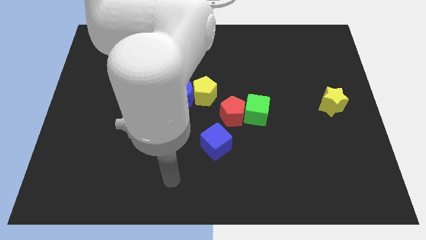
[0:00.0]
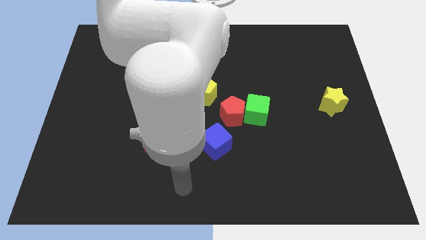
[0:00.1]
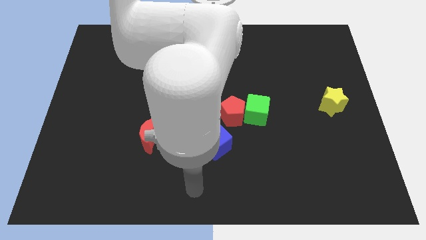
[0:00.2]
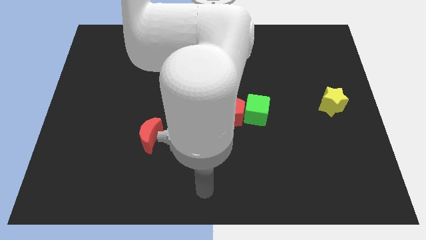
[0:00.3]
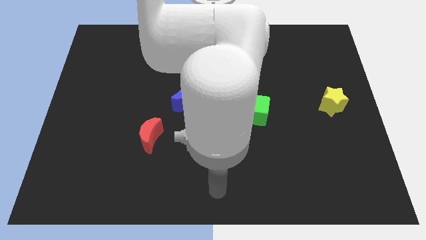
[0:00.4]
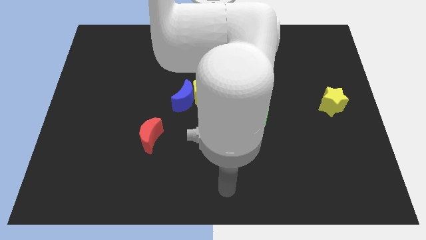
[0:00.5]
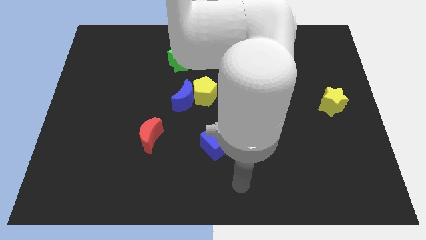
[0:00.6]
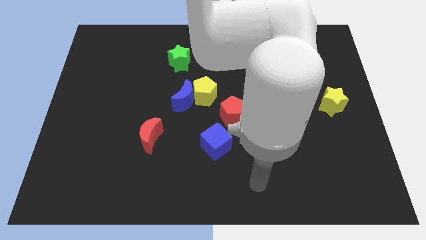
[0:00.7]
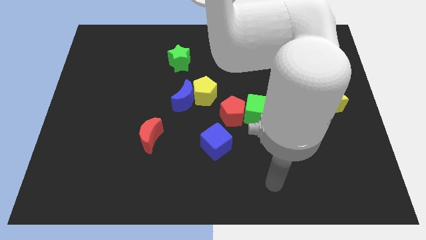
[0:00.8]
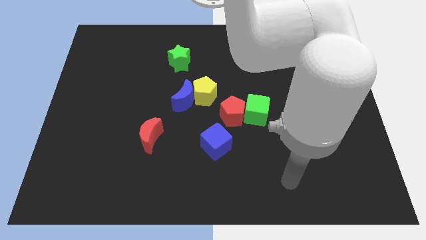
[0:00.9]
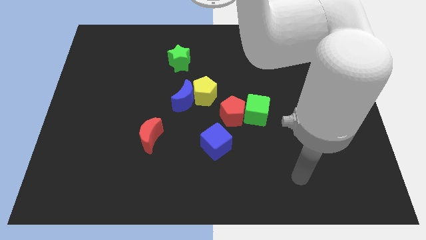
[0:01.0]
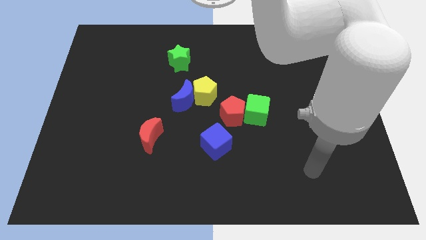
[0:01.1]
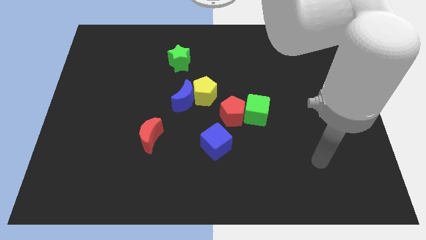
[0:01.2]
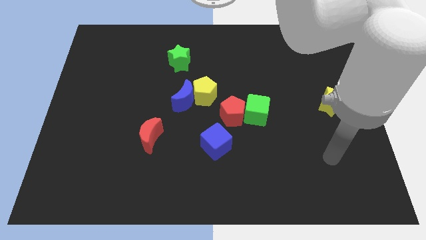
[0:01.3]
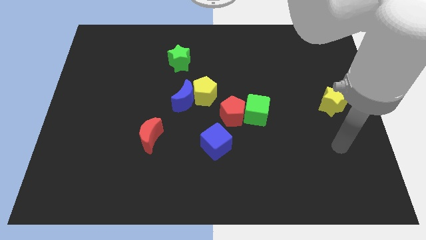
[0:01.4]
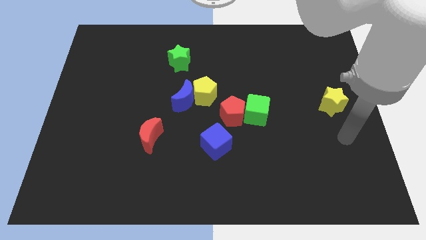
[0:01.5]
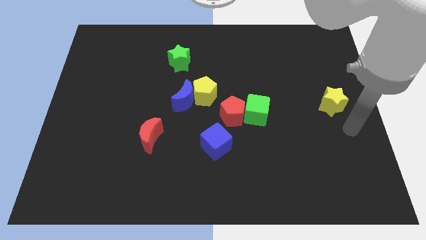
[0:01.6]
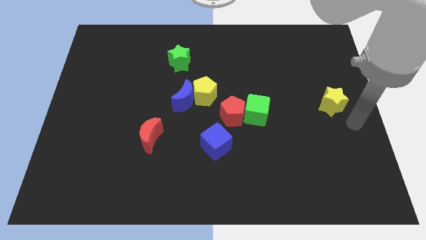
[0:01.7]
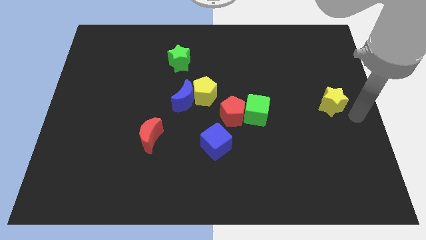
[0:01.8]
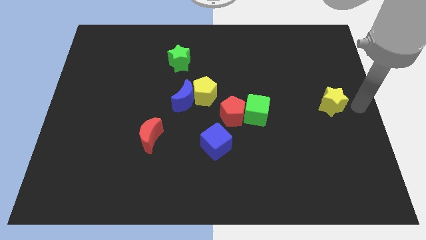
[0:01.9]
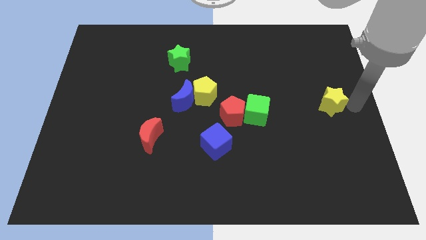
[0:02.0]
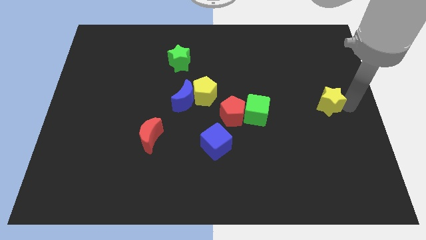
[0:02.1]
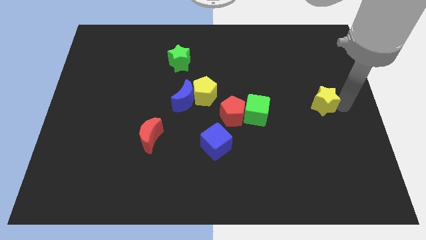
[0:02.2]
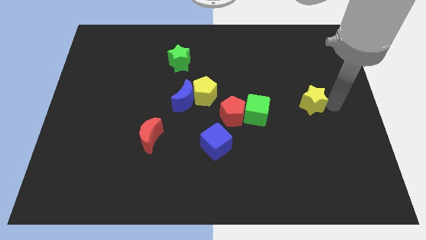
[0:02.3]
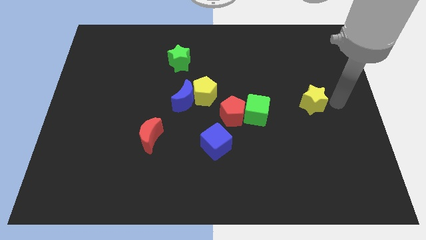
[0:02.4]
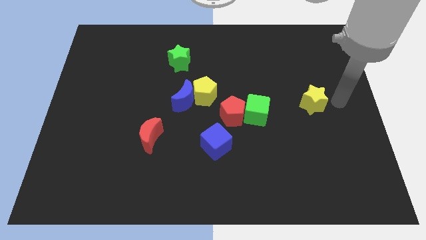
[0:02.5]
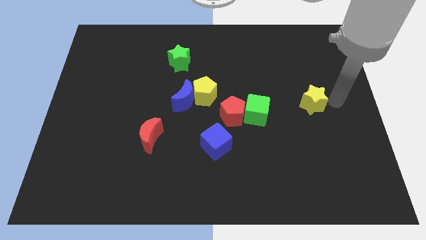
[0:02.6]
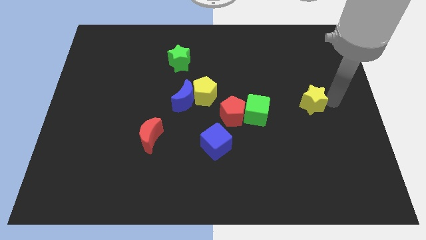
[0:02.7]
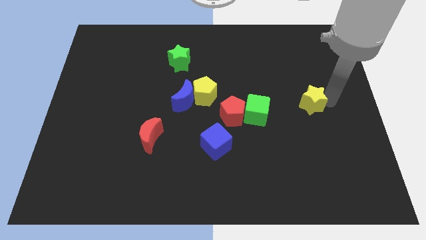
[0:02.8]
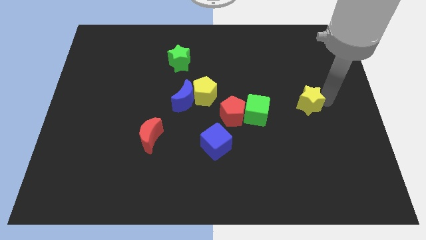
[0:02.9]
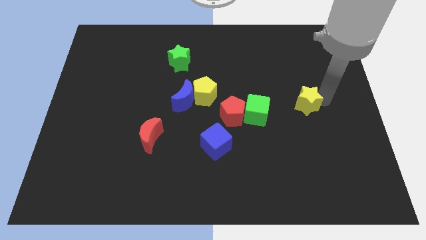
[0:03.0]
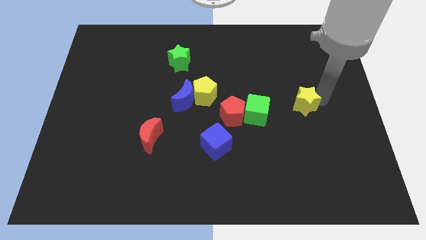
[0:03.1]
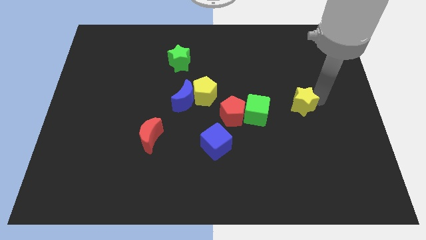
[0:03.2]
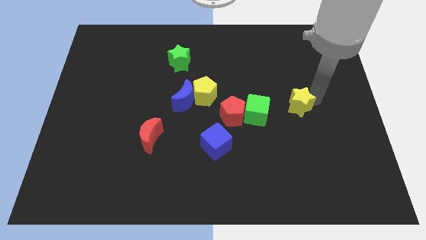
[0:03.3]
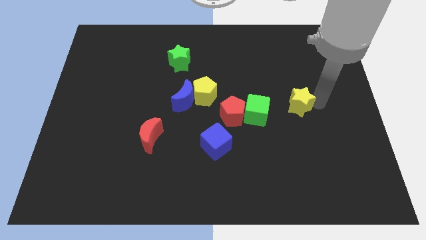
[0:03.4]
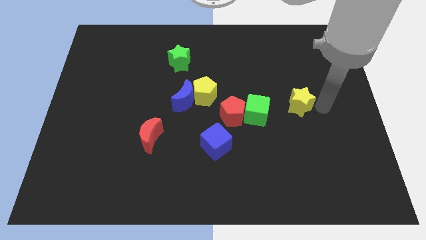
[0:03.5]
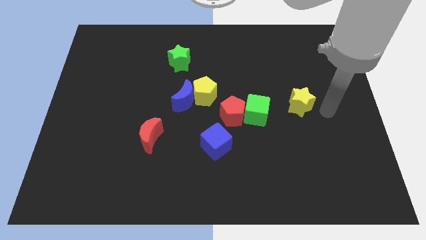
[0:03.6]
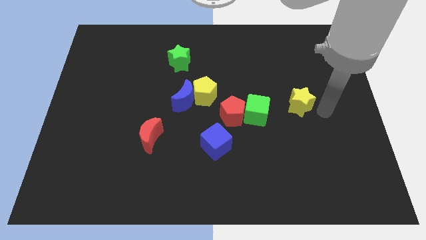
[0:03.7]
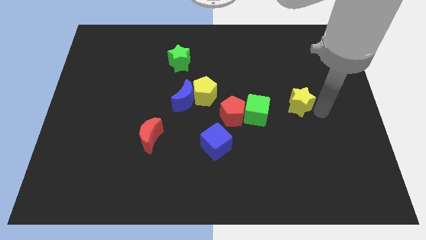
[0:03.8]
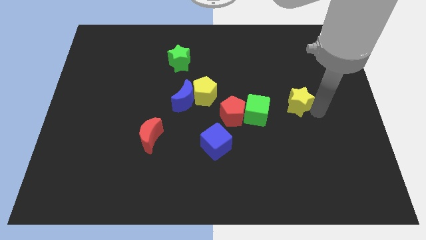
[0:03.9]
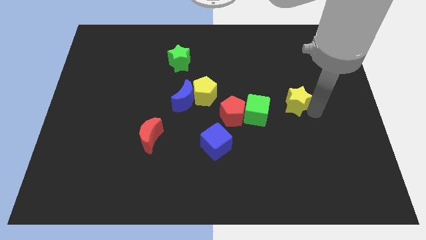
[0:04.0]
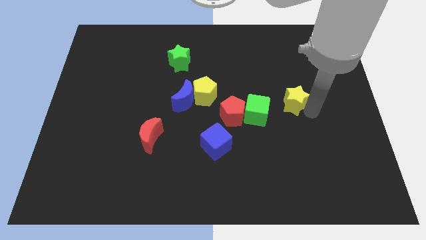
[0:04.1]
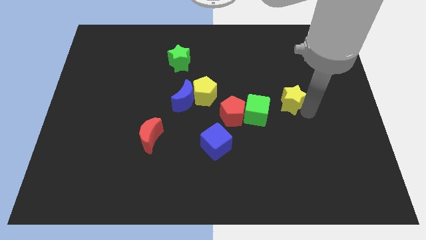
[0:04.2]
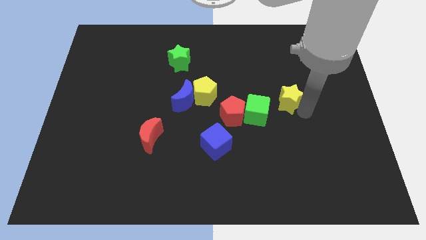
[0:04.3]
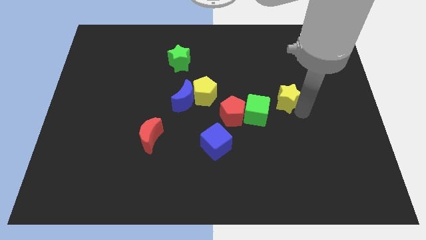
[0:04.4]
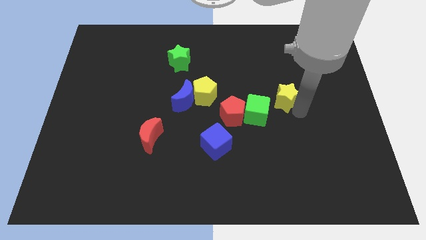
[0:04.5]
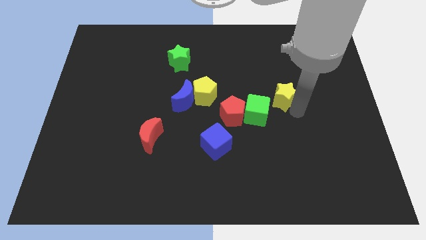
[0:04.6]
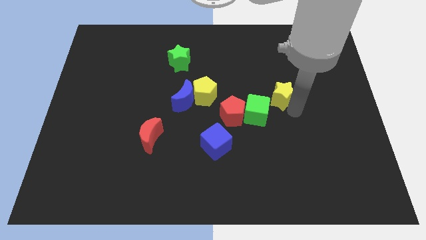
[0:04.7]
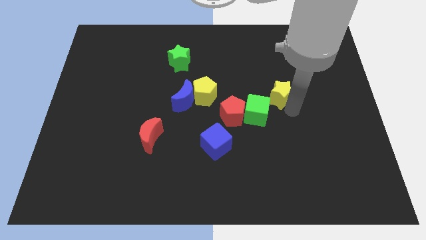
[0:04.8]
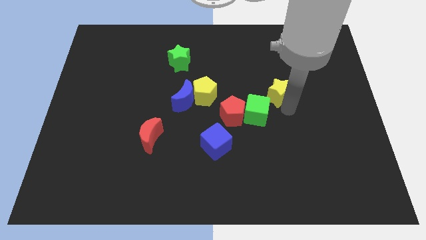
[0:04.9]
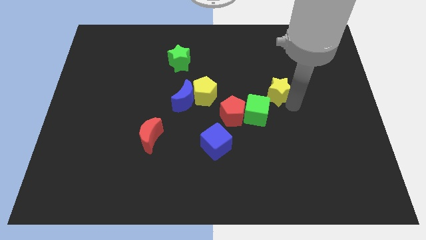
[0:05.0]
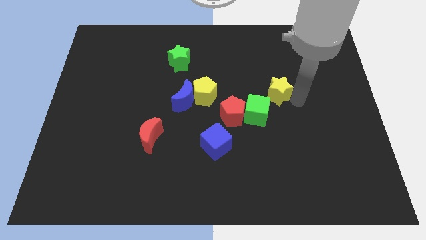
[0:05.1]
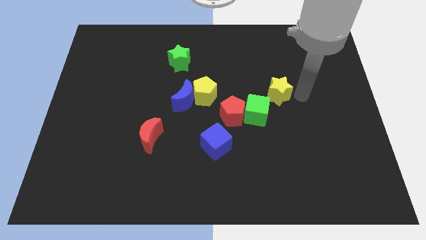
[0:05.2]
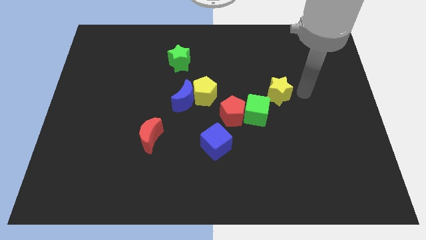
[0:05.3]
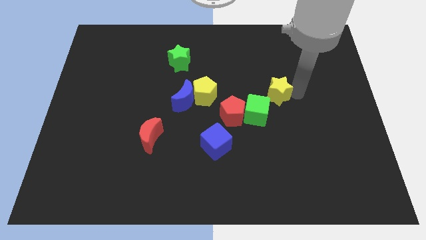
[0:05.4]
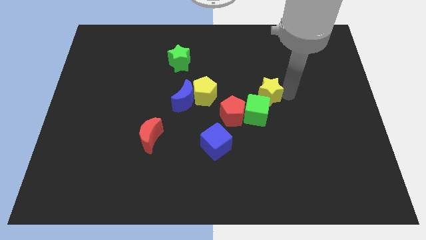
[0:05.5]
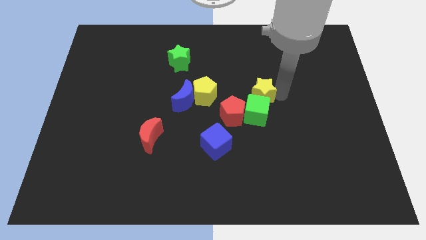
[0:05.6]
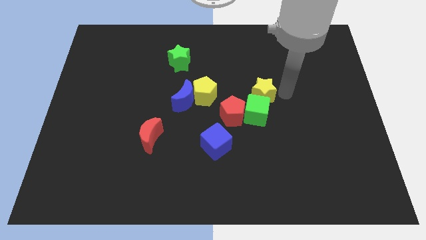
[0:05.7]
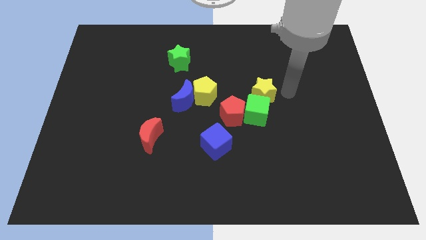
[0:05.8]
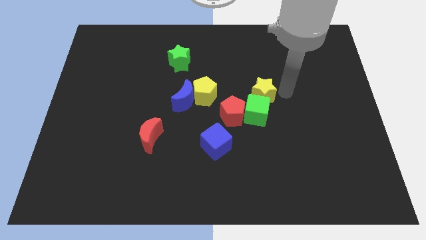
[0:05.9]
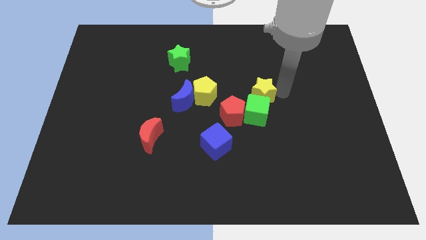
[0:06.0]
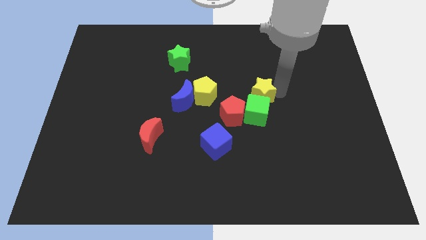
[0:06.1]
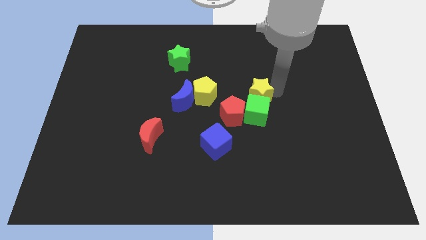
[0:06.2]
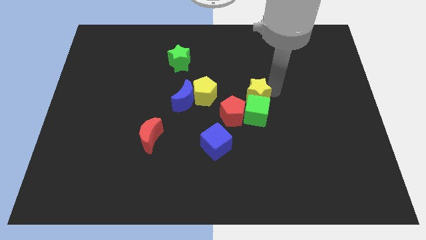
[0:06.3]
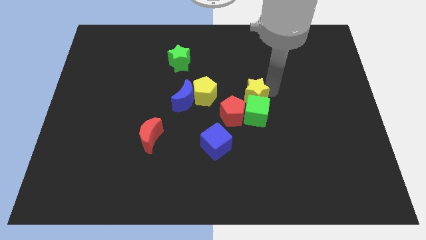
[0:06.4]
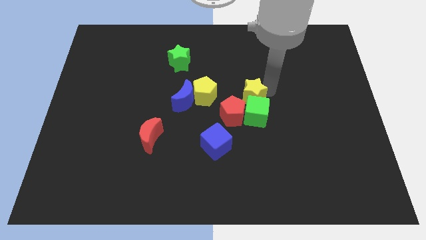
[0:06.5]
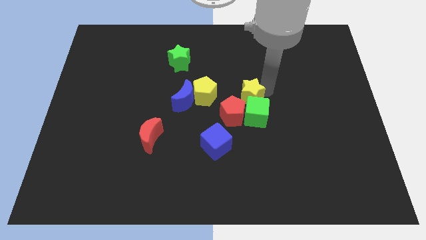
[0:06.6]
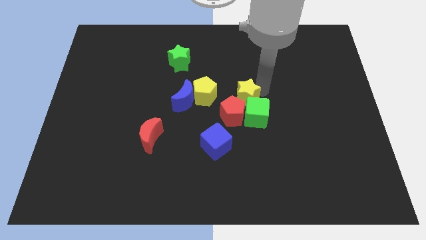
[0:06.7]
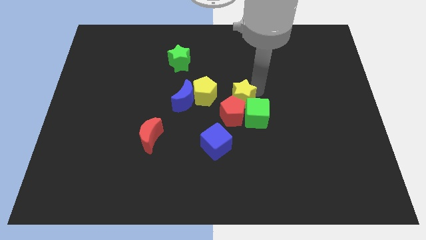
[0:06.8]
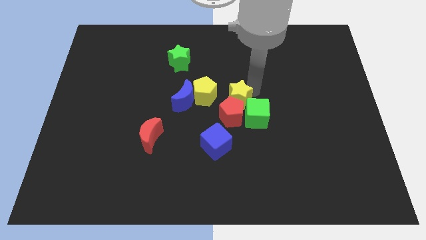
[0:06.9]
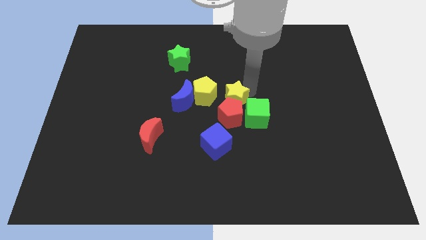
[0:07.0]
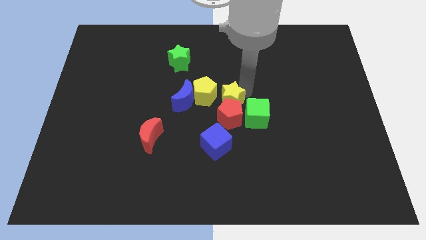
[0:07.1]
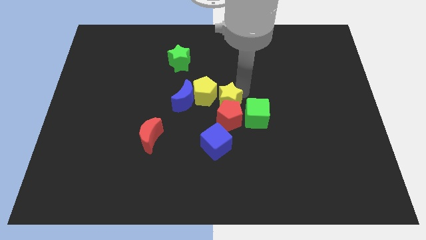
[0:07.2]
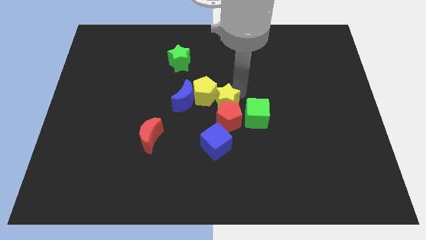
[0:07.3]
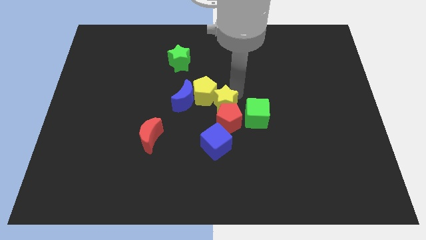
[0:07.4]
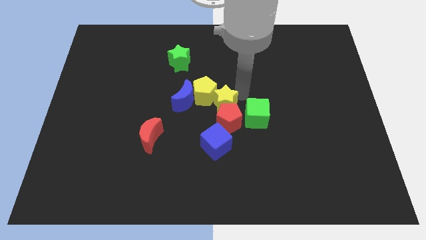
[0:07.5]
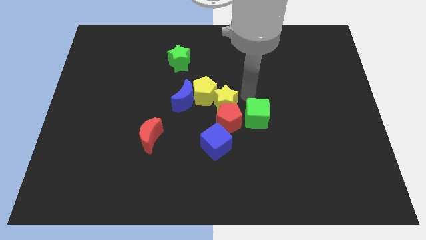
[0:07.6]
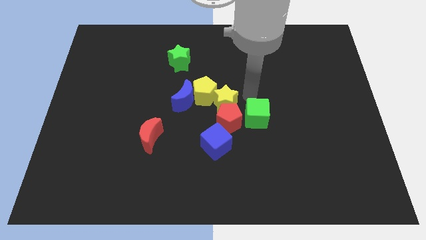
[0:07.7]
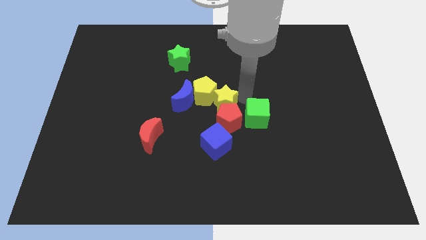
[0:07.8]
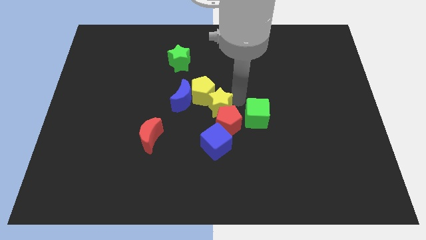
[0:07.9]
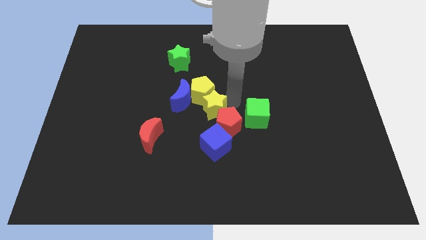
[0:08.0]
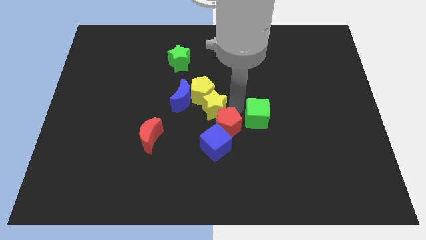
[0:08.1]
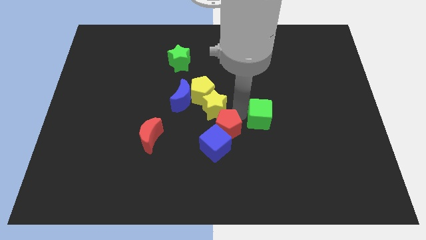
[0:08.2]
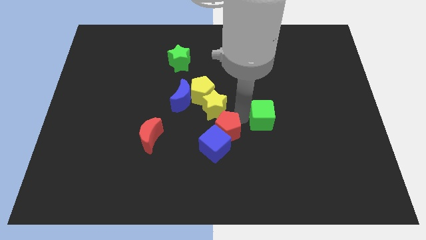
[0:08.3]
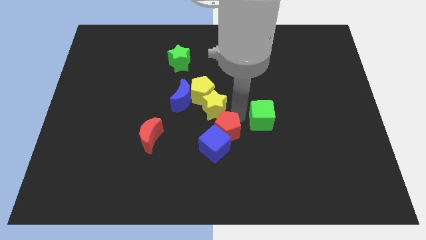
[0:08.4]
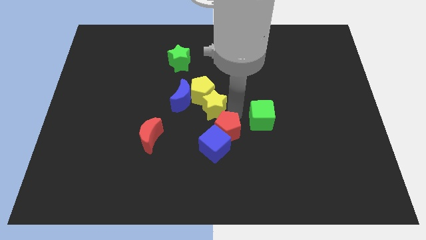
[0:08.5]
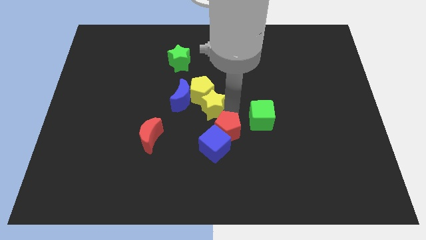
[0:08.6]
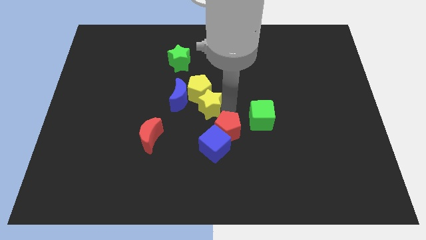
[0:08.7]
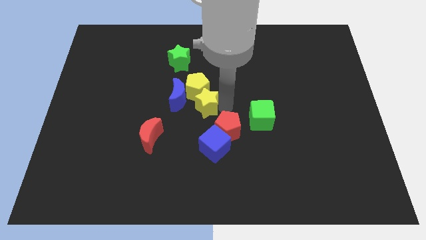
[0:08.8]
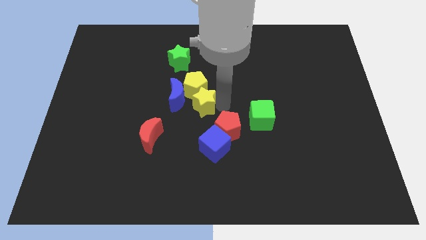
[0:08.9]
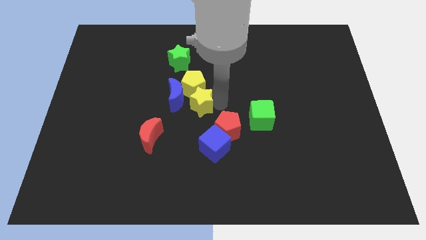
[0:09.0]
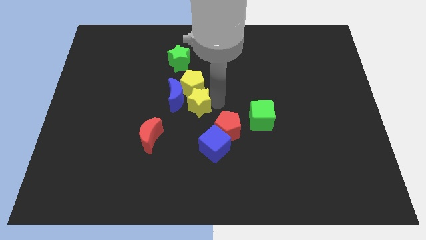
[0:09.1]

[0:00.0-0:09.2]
put the yellow star close to the blue moon
